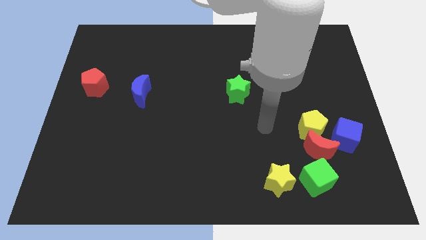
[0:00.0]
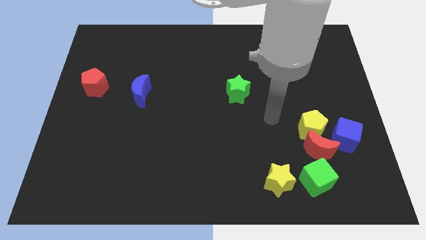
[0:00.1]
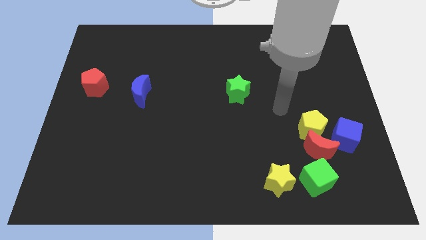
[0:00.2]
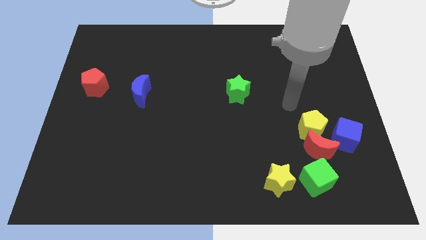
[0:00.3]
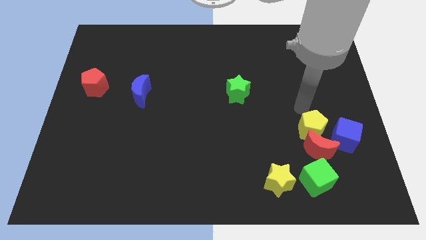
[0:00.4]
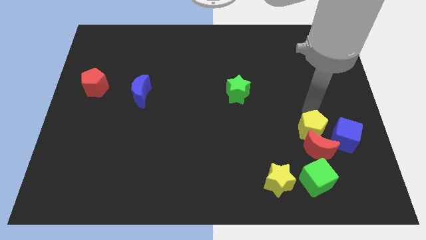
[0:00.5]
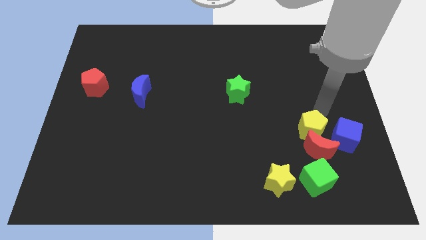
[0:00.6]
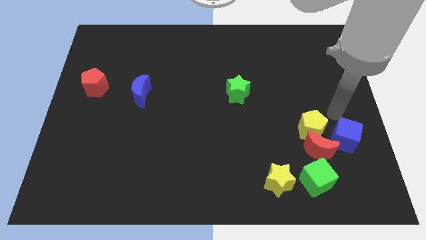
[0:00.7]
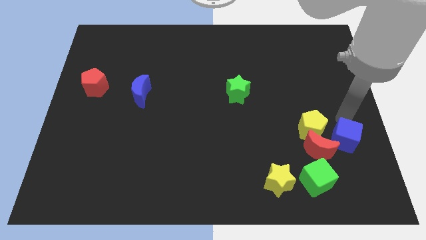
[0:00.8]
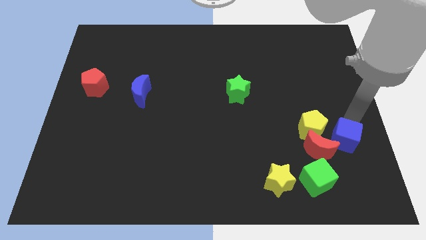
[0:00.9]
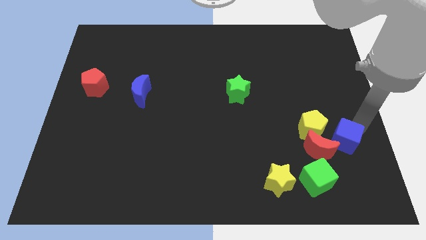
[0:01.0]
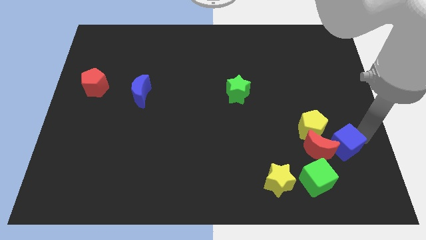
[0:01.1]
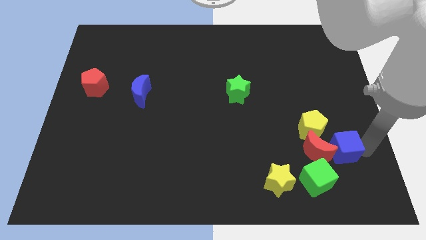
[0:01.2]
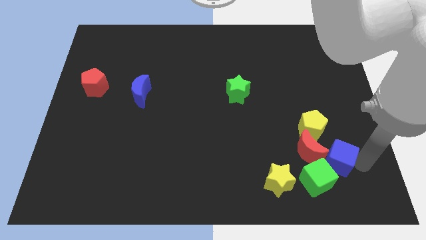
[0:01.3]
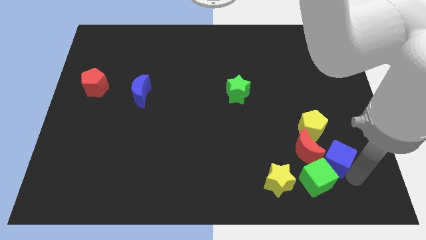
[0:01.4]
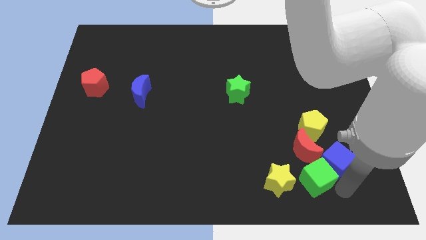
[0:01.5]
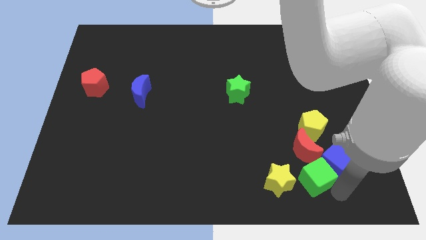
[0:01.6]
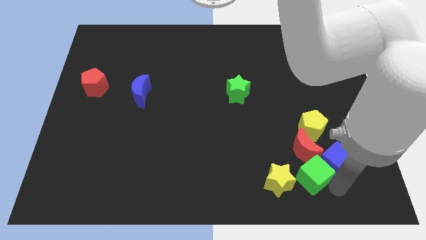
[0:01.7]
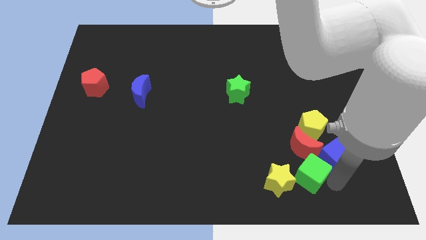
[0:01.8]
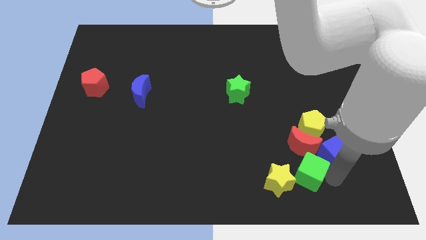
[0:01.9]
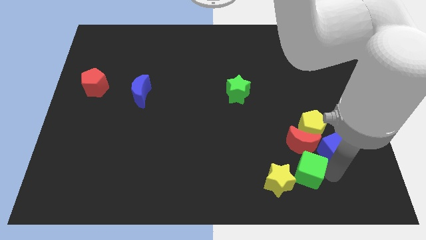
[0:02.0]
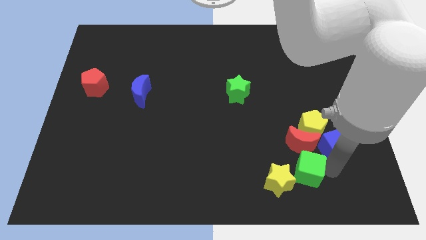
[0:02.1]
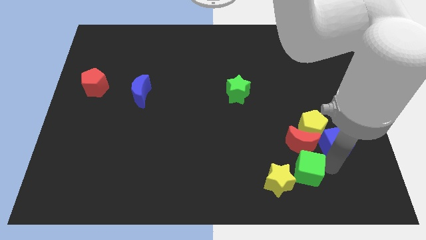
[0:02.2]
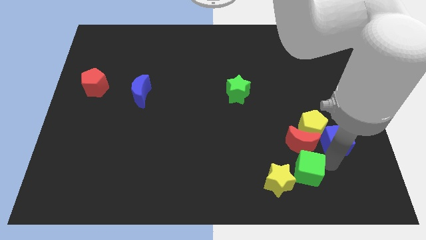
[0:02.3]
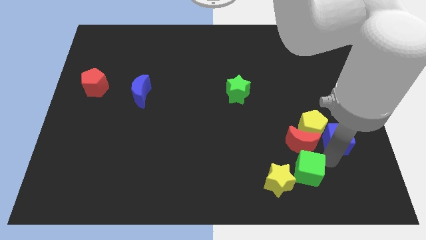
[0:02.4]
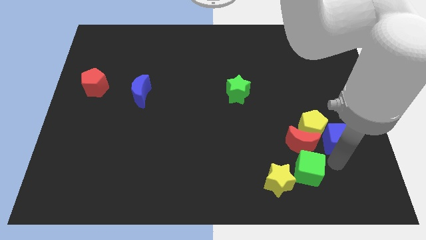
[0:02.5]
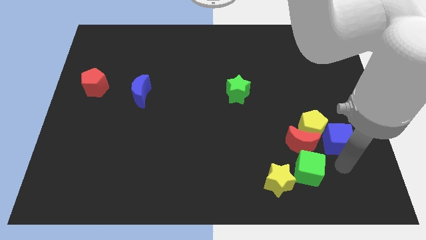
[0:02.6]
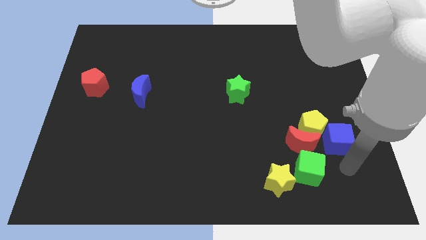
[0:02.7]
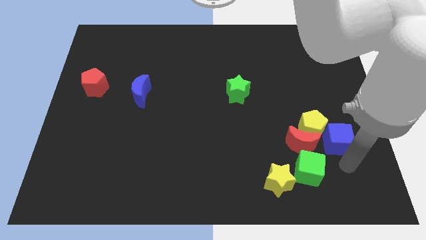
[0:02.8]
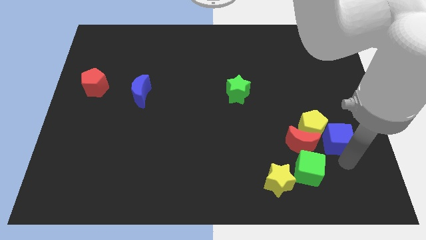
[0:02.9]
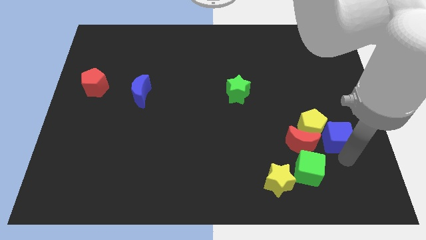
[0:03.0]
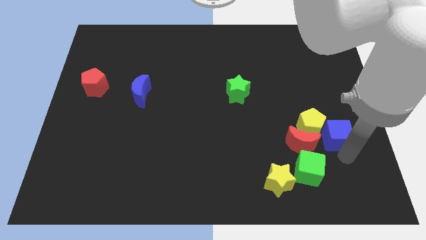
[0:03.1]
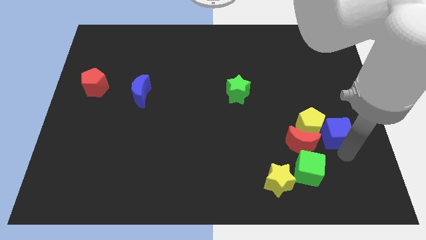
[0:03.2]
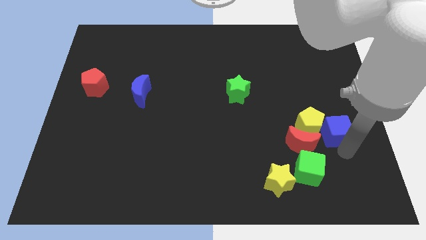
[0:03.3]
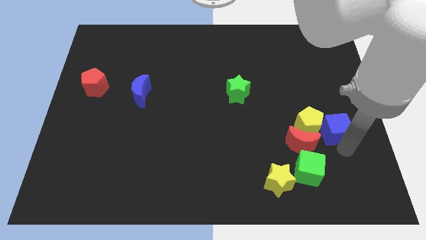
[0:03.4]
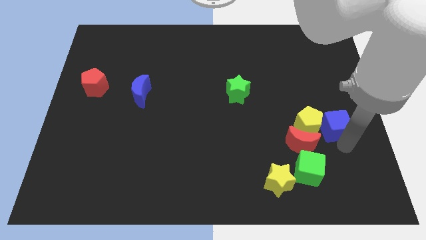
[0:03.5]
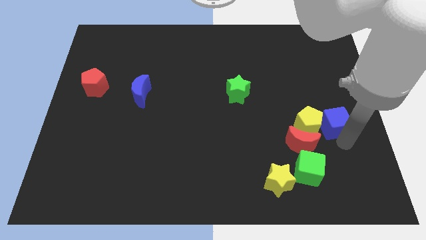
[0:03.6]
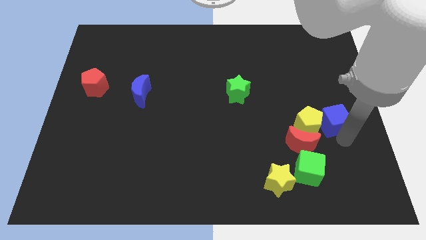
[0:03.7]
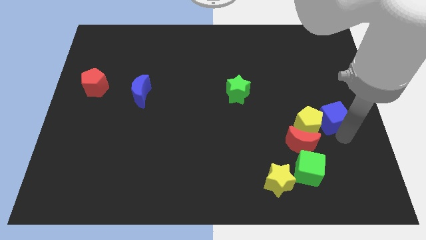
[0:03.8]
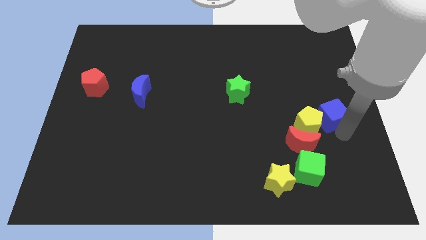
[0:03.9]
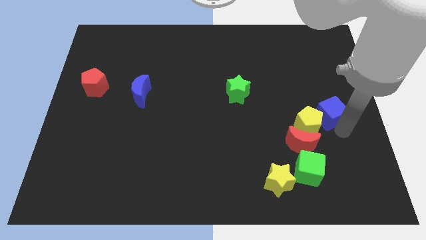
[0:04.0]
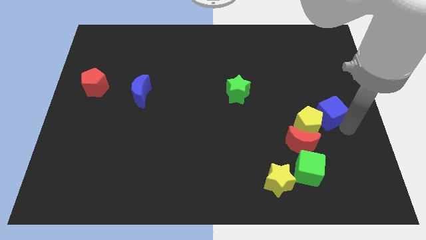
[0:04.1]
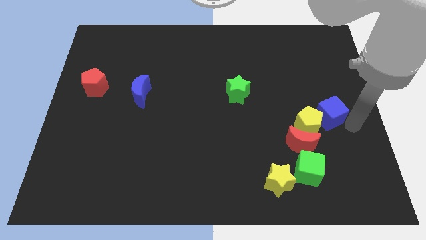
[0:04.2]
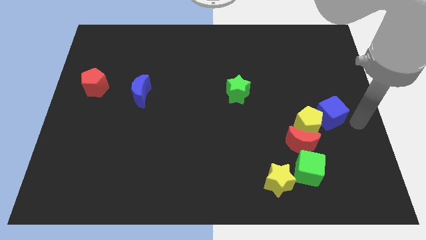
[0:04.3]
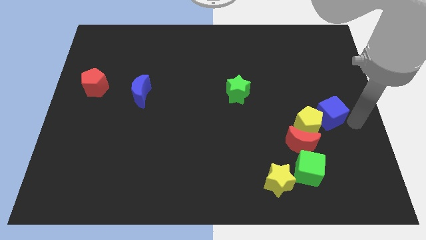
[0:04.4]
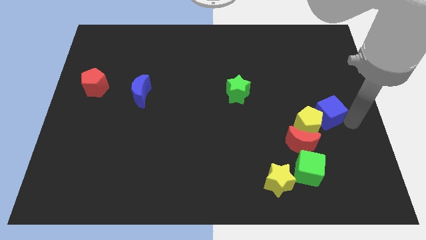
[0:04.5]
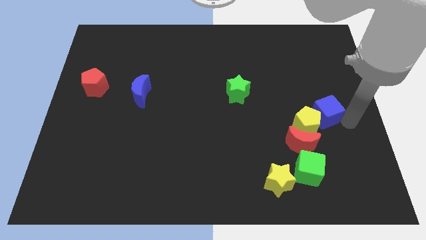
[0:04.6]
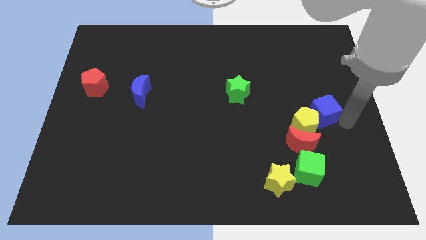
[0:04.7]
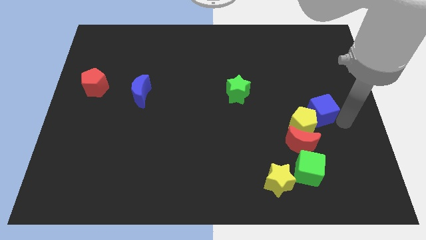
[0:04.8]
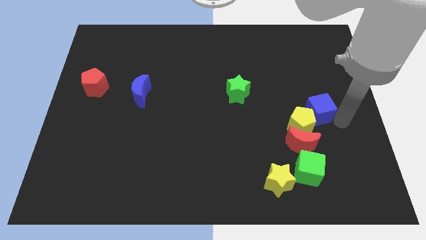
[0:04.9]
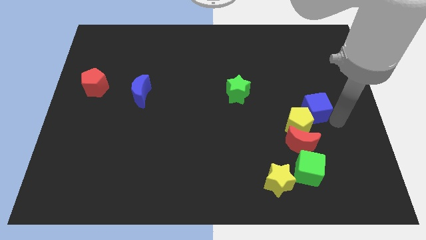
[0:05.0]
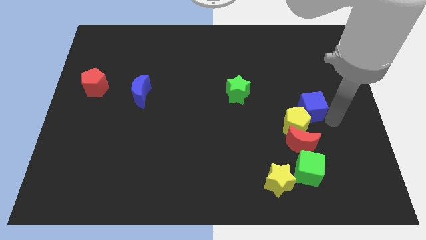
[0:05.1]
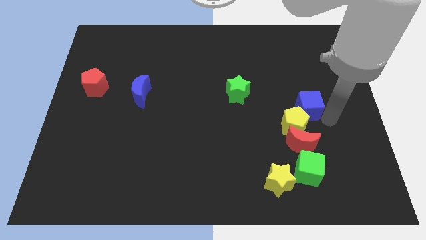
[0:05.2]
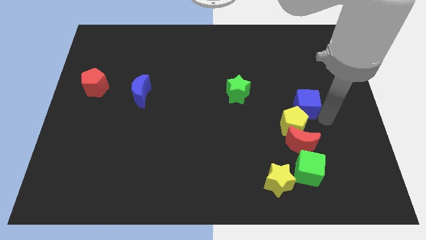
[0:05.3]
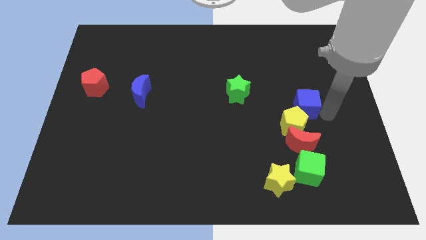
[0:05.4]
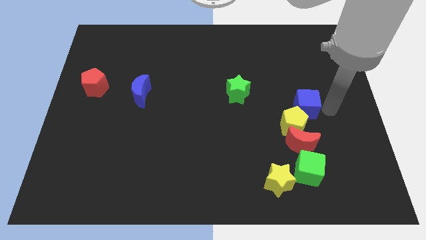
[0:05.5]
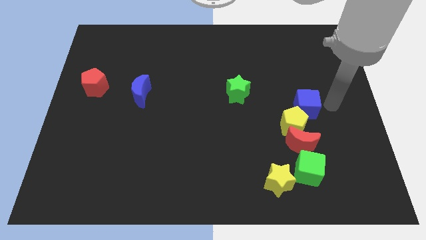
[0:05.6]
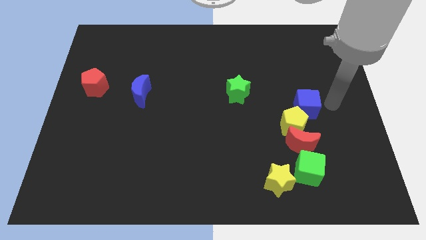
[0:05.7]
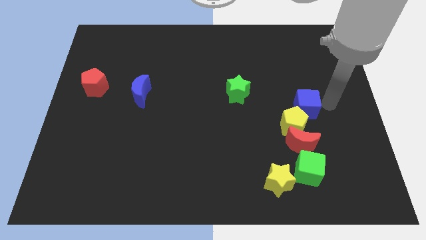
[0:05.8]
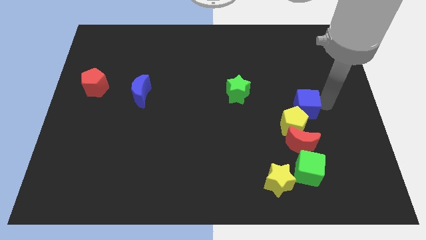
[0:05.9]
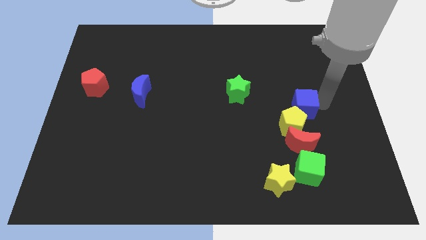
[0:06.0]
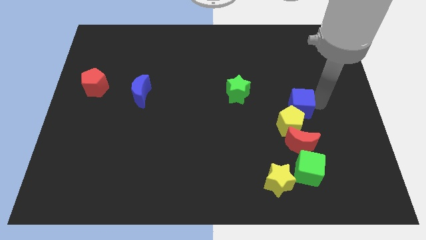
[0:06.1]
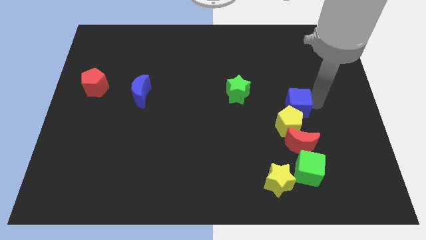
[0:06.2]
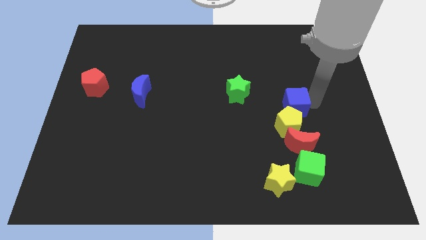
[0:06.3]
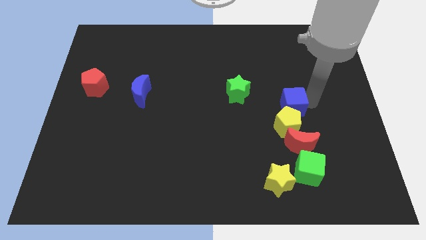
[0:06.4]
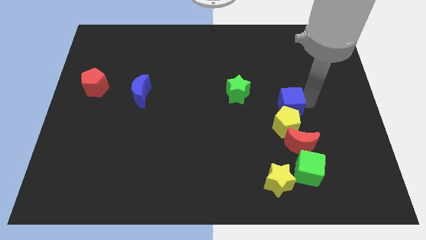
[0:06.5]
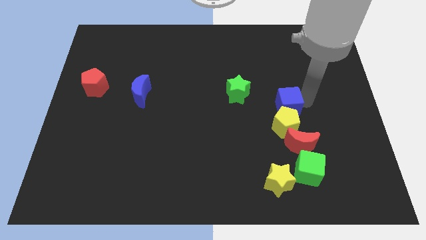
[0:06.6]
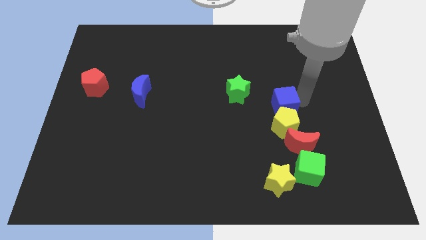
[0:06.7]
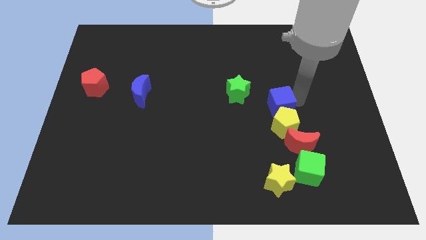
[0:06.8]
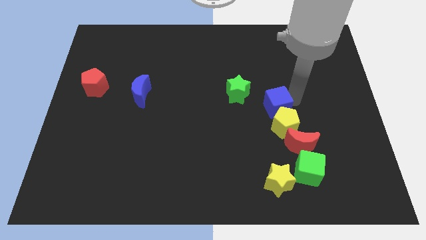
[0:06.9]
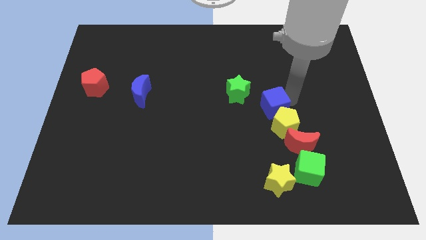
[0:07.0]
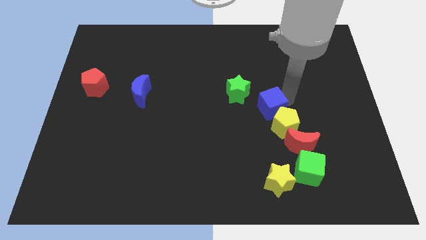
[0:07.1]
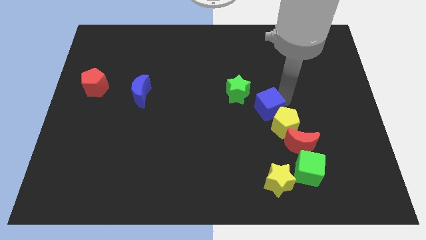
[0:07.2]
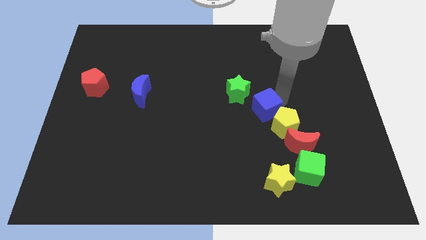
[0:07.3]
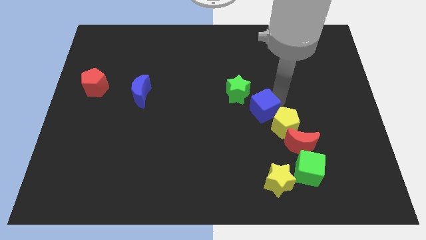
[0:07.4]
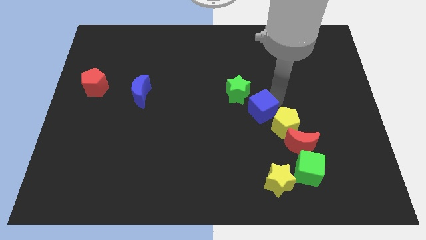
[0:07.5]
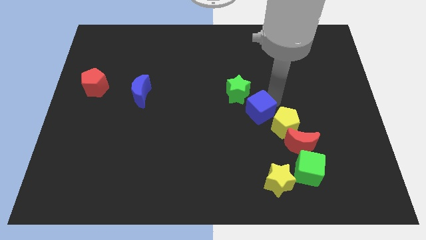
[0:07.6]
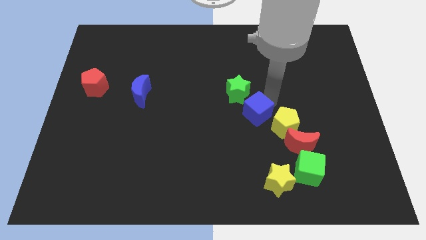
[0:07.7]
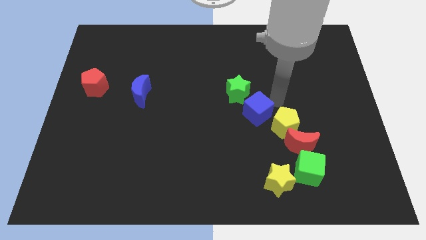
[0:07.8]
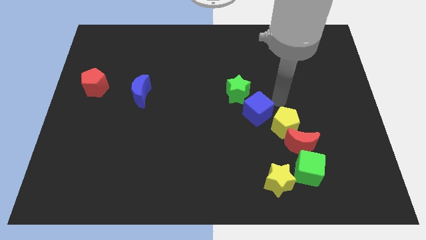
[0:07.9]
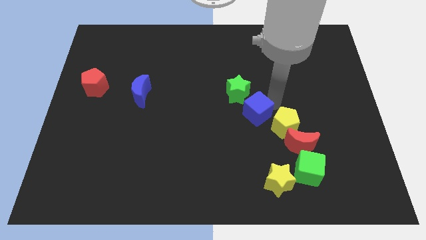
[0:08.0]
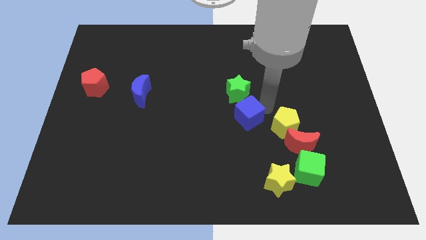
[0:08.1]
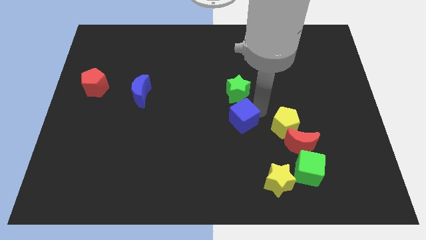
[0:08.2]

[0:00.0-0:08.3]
move the blue cube to the left
